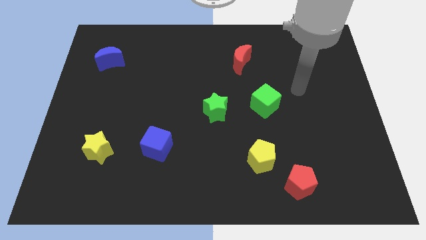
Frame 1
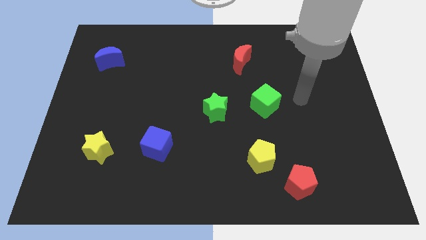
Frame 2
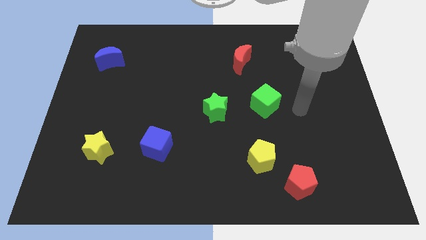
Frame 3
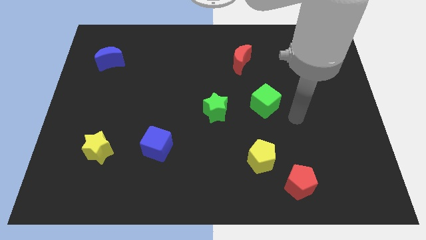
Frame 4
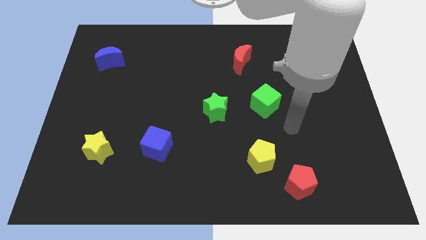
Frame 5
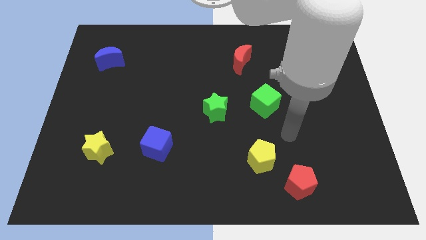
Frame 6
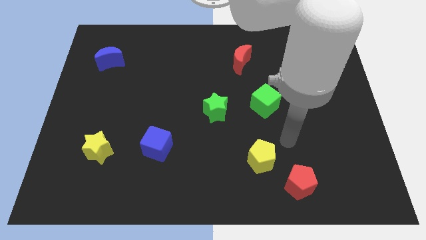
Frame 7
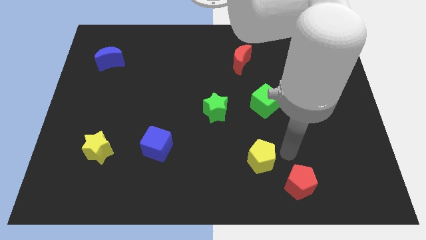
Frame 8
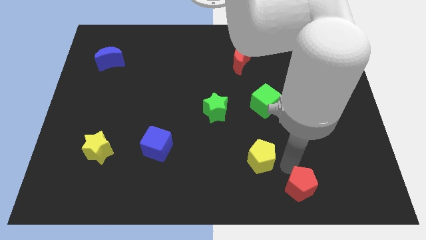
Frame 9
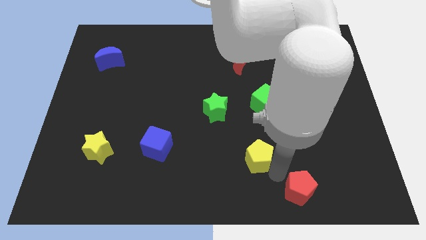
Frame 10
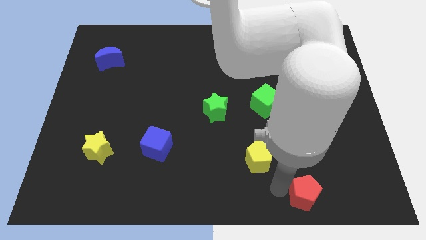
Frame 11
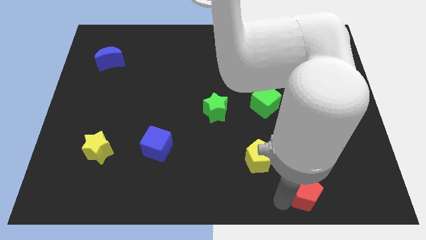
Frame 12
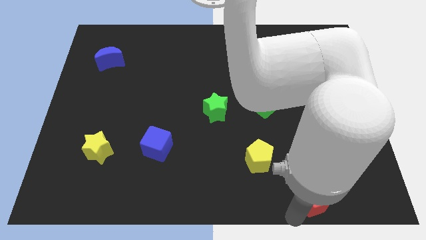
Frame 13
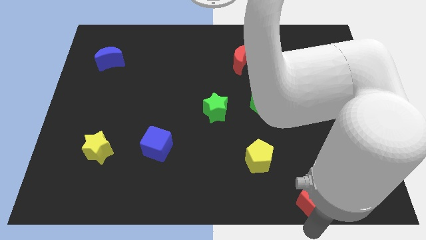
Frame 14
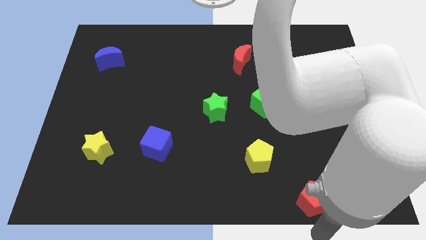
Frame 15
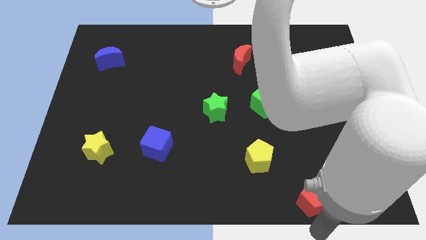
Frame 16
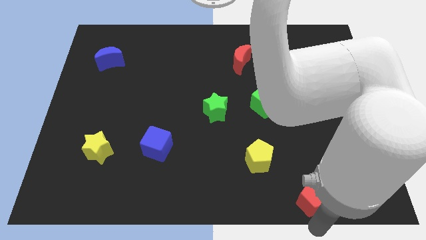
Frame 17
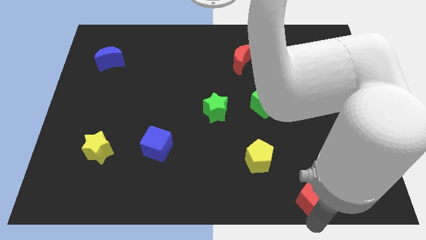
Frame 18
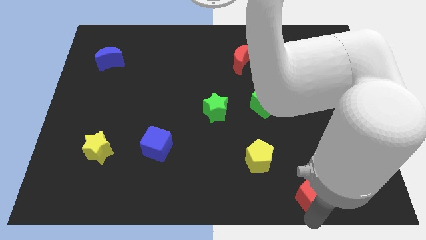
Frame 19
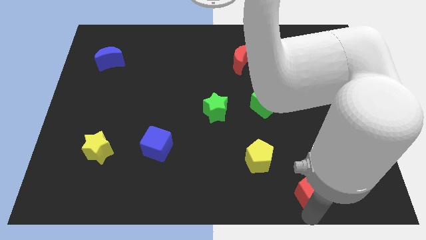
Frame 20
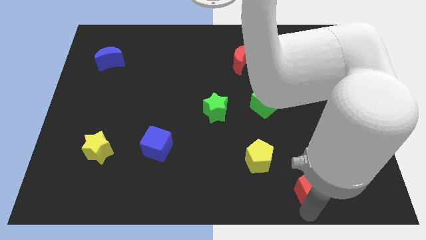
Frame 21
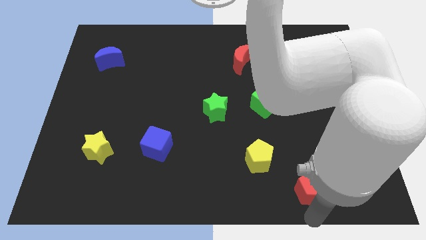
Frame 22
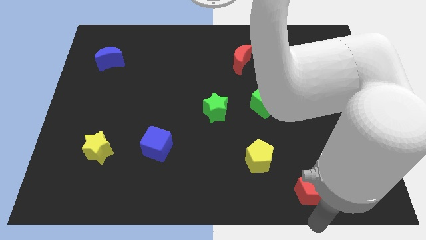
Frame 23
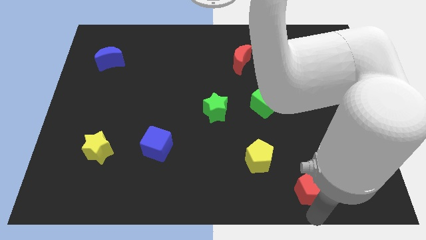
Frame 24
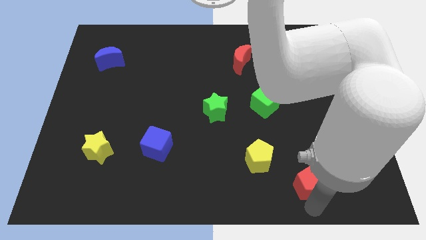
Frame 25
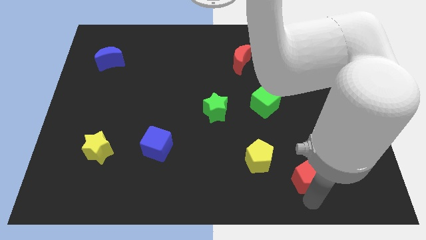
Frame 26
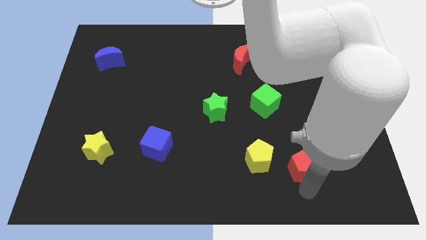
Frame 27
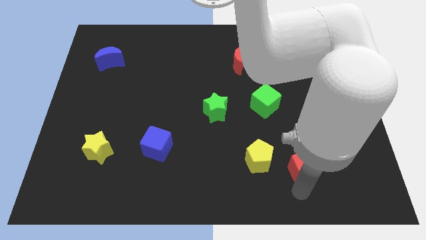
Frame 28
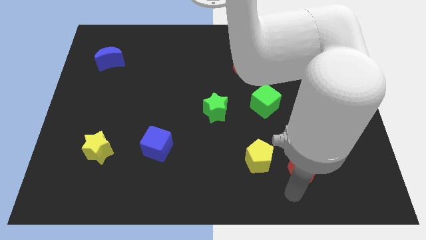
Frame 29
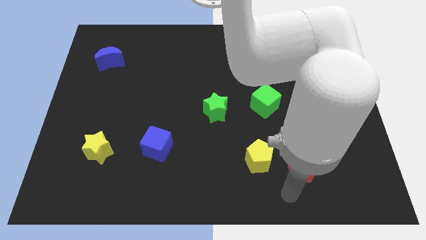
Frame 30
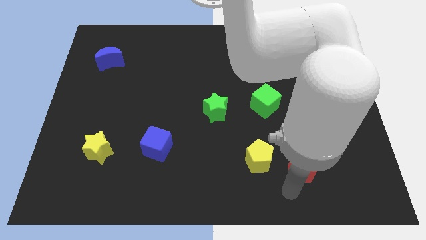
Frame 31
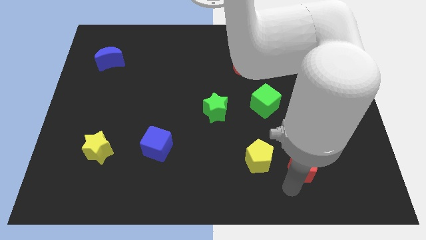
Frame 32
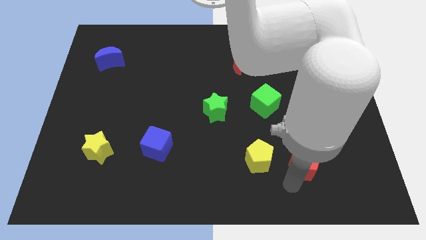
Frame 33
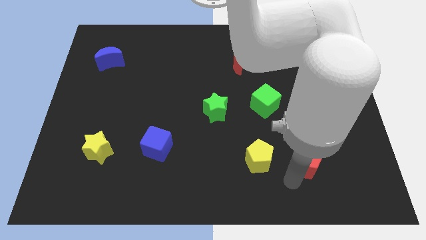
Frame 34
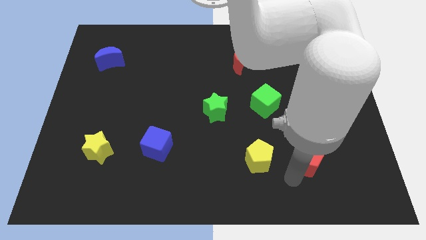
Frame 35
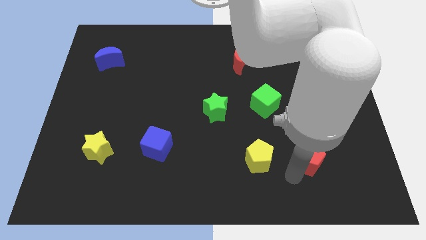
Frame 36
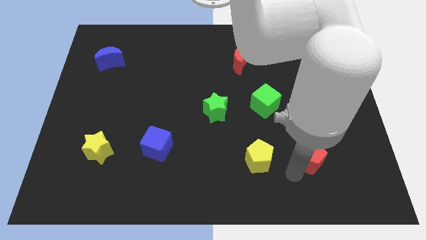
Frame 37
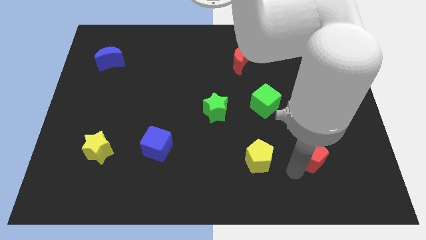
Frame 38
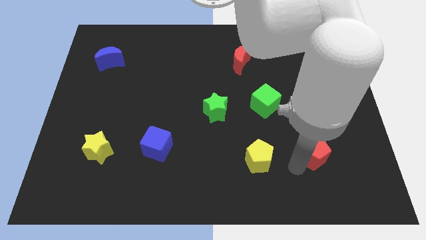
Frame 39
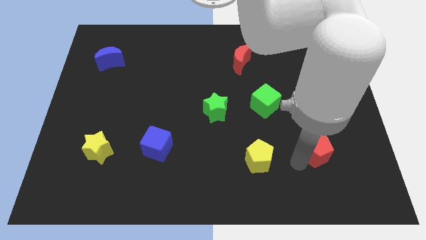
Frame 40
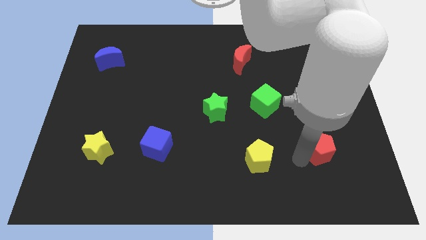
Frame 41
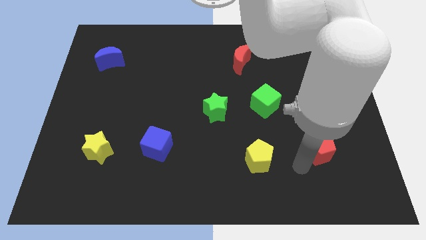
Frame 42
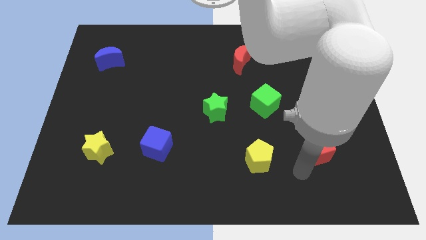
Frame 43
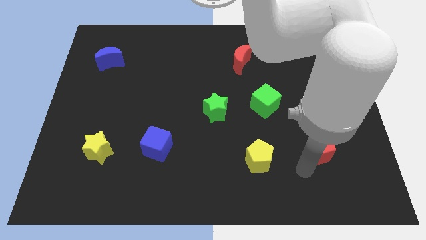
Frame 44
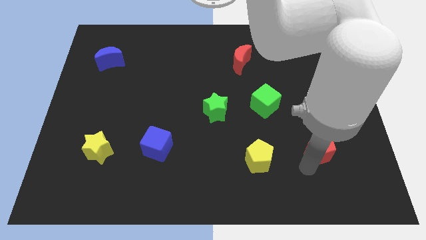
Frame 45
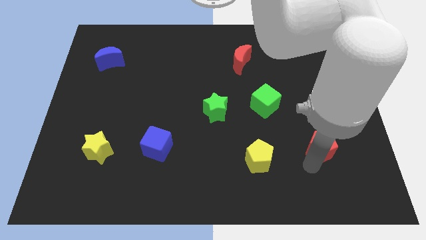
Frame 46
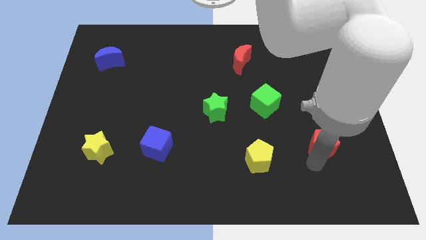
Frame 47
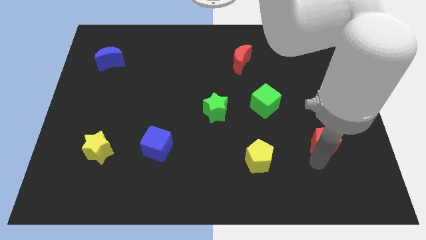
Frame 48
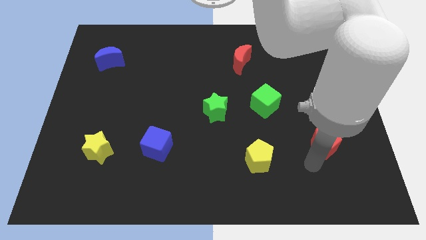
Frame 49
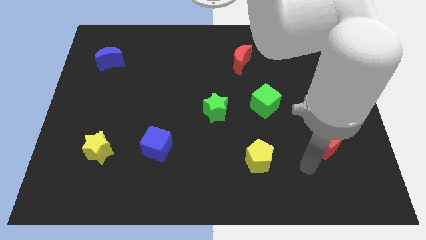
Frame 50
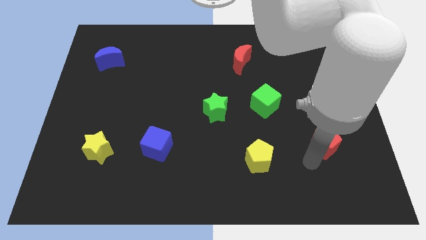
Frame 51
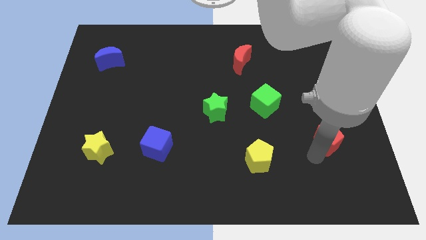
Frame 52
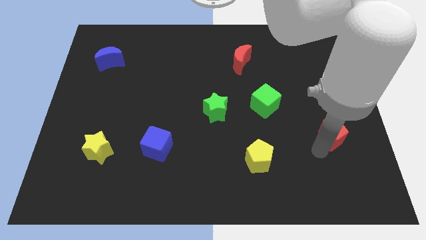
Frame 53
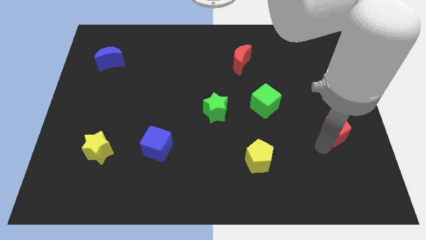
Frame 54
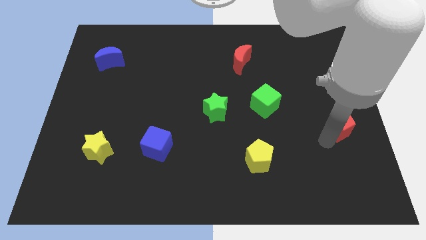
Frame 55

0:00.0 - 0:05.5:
move the red pentagon to the right side of the board
